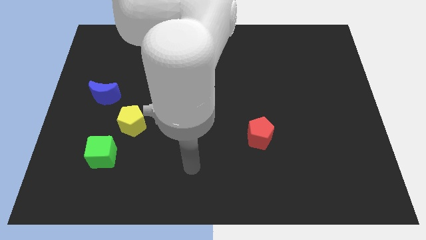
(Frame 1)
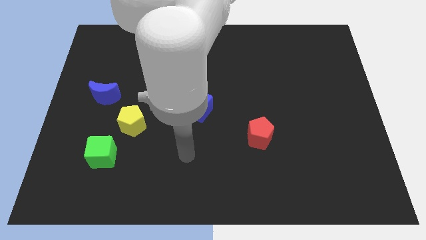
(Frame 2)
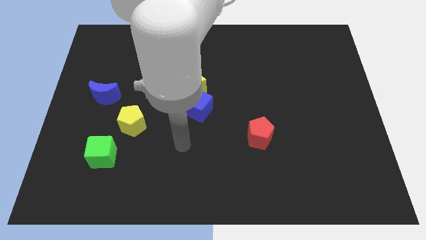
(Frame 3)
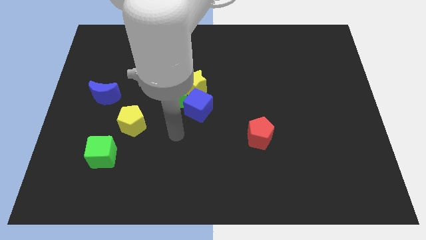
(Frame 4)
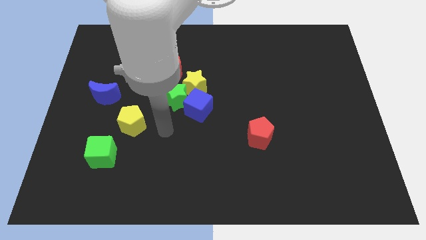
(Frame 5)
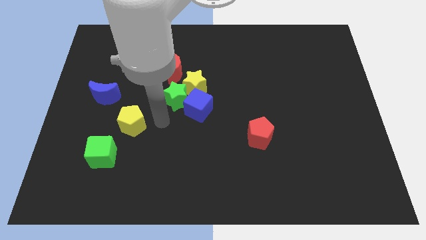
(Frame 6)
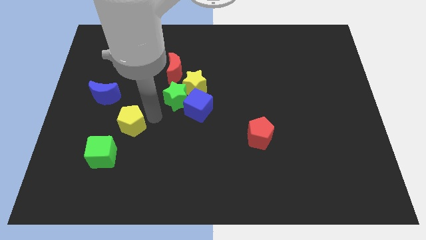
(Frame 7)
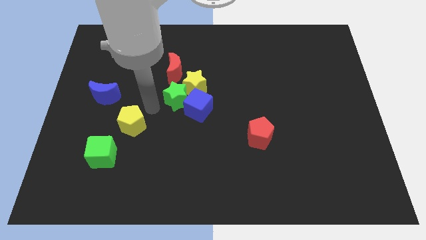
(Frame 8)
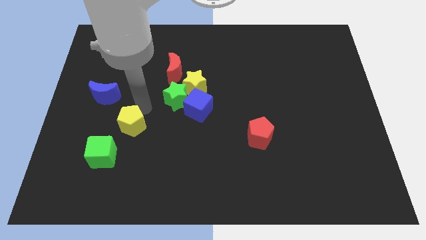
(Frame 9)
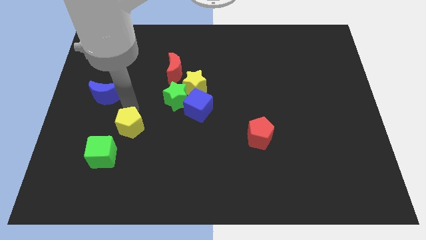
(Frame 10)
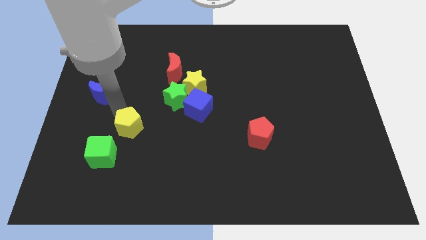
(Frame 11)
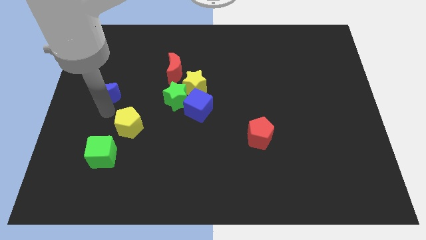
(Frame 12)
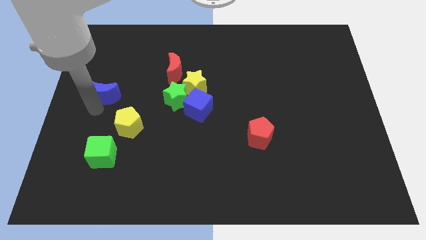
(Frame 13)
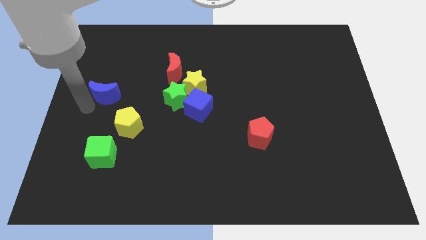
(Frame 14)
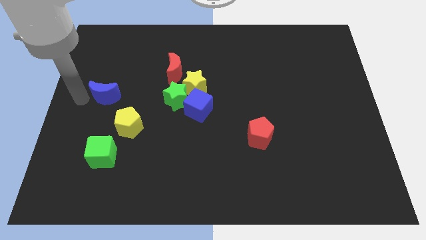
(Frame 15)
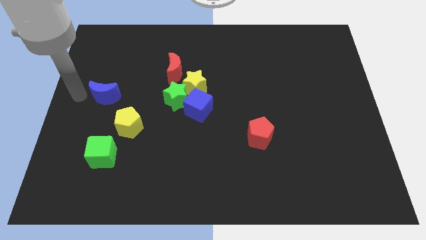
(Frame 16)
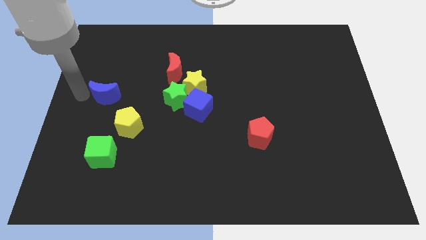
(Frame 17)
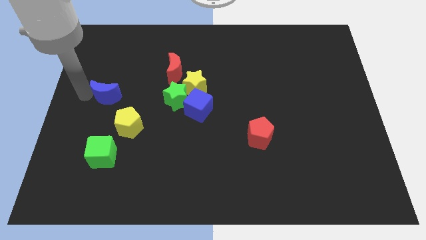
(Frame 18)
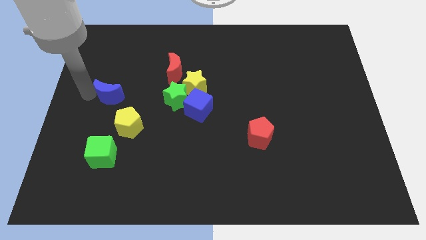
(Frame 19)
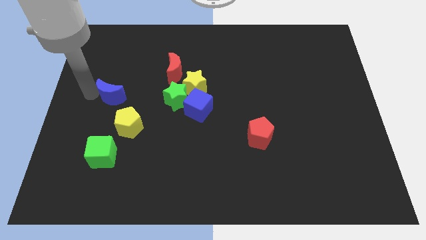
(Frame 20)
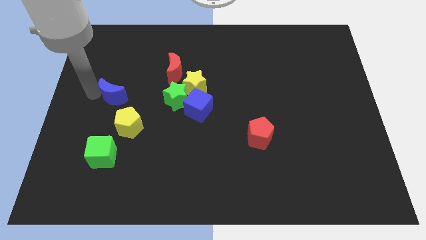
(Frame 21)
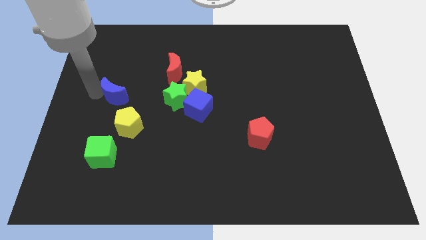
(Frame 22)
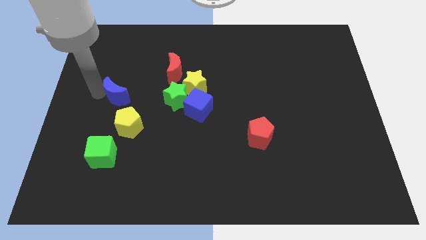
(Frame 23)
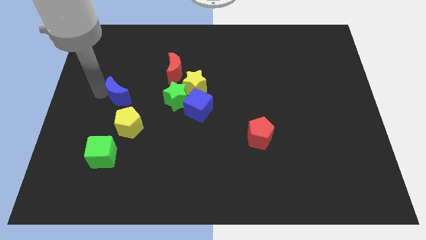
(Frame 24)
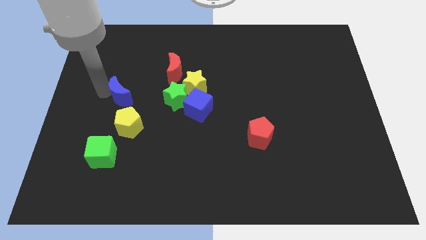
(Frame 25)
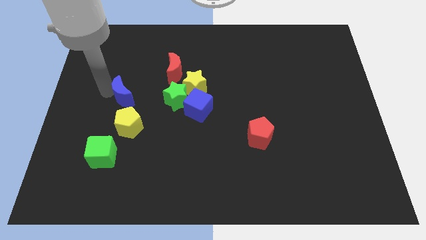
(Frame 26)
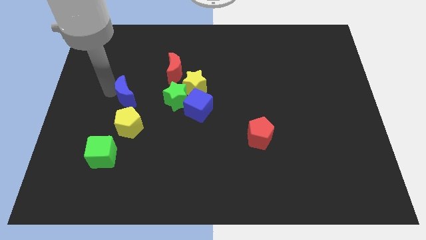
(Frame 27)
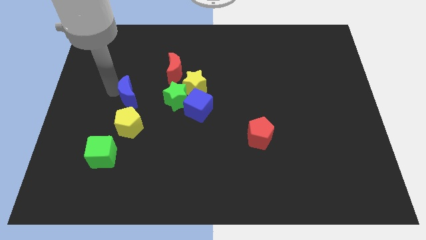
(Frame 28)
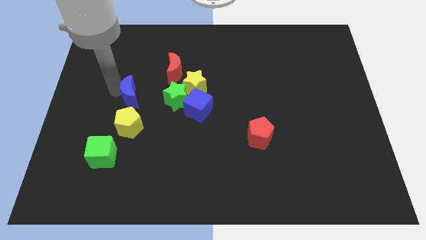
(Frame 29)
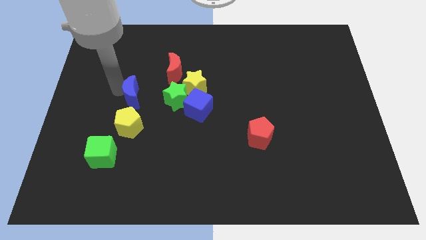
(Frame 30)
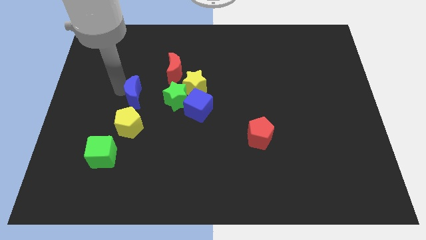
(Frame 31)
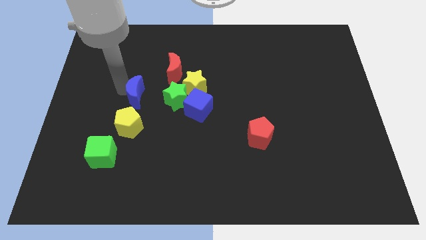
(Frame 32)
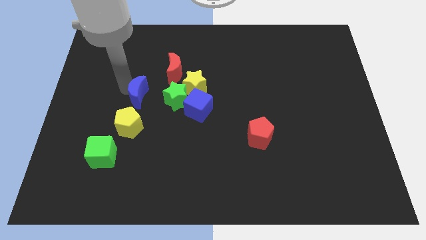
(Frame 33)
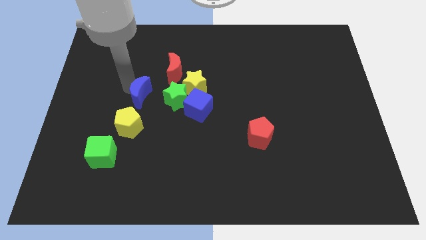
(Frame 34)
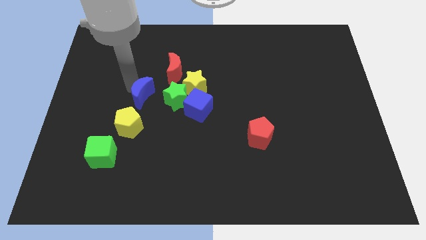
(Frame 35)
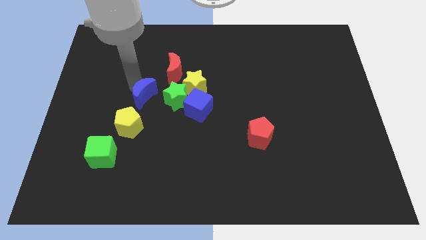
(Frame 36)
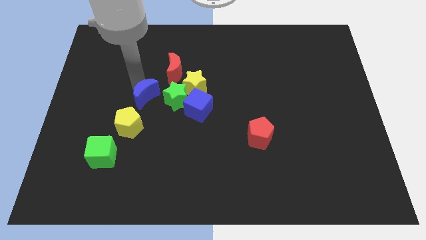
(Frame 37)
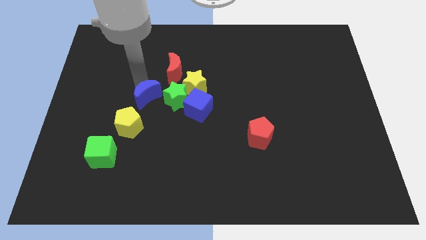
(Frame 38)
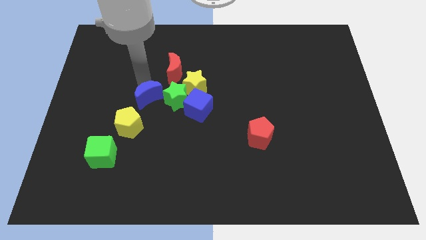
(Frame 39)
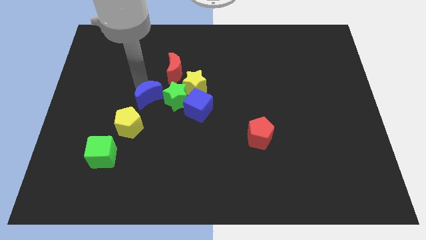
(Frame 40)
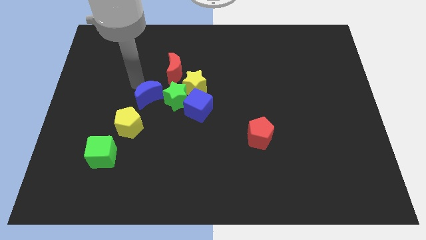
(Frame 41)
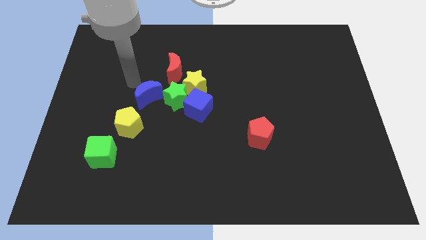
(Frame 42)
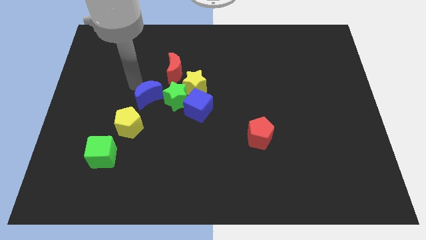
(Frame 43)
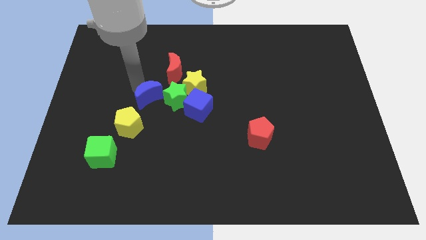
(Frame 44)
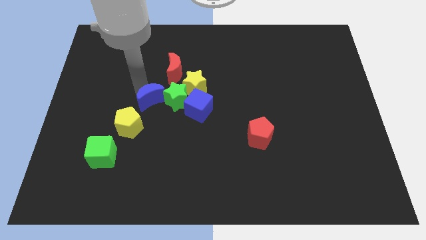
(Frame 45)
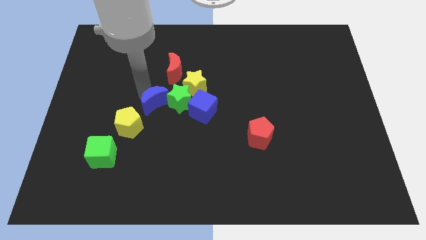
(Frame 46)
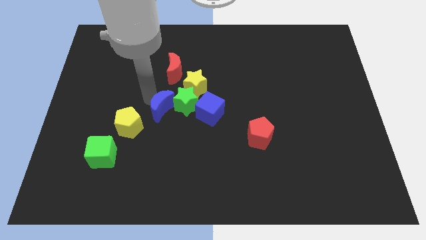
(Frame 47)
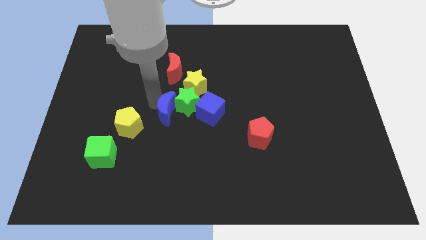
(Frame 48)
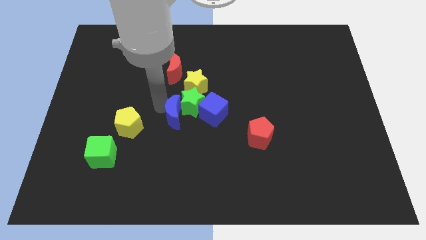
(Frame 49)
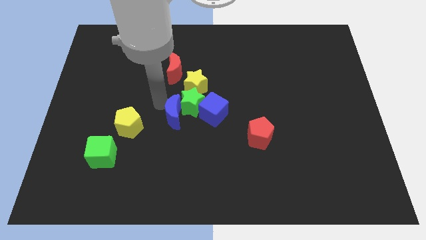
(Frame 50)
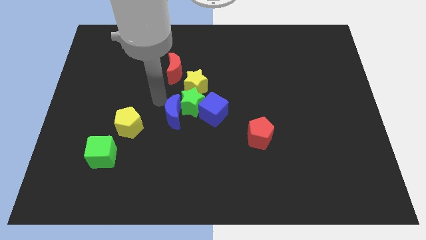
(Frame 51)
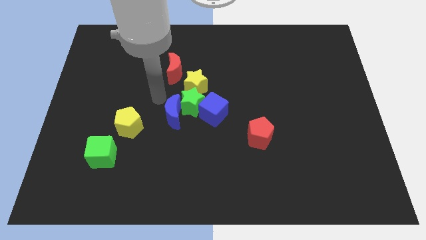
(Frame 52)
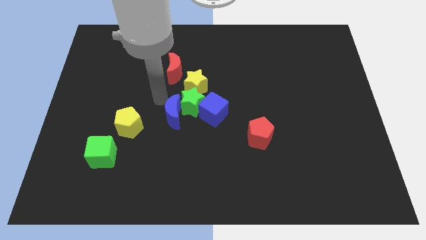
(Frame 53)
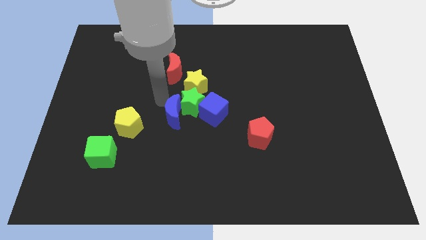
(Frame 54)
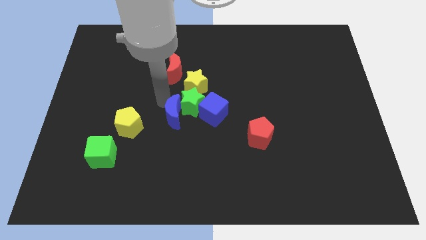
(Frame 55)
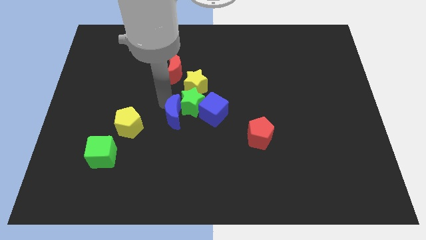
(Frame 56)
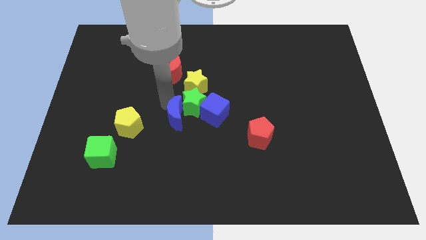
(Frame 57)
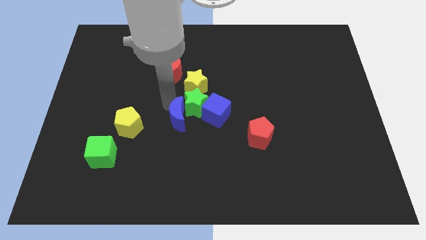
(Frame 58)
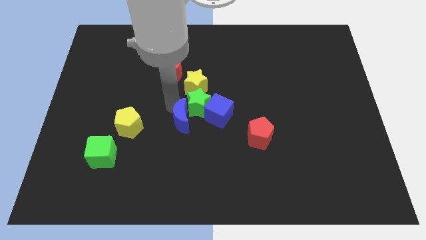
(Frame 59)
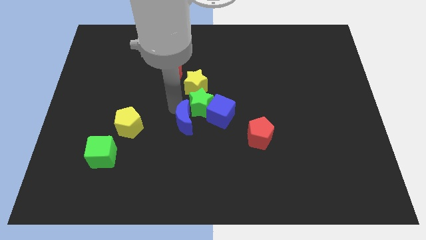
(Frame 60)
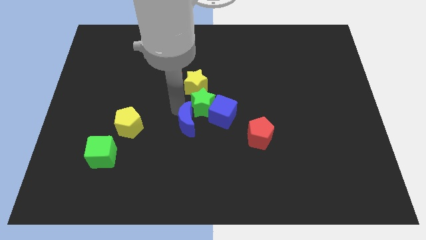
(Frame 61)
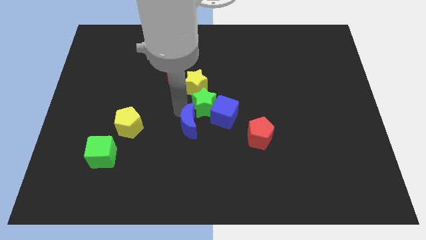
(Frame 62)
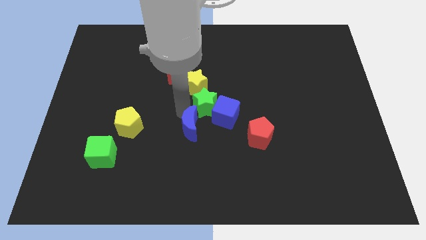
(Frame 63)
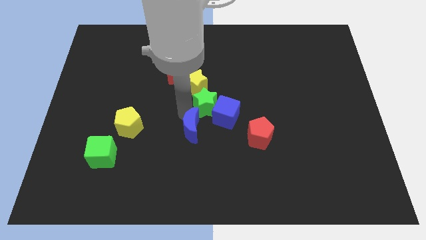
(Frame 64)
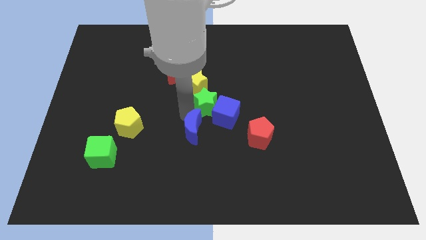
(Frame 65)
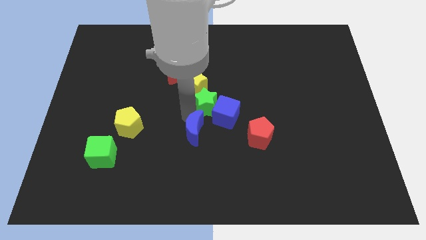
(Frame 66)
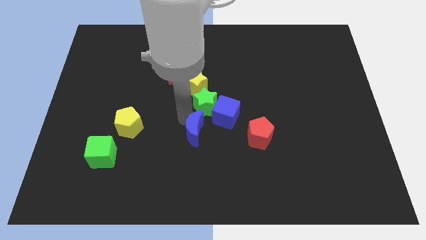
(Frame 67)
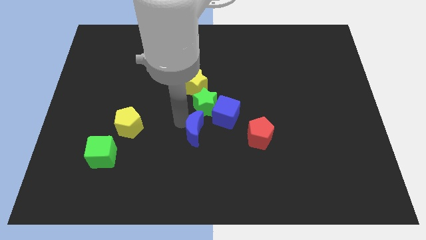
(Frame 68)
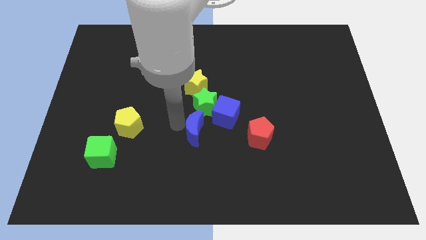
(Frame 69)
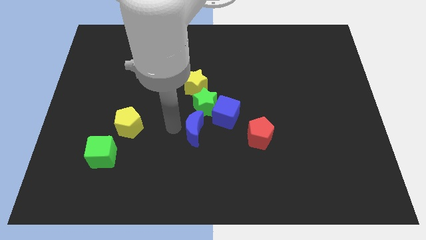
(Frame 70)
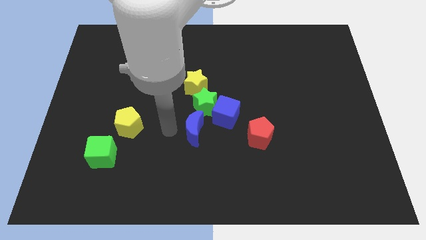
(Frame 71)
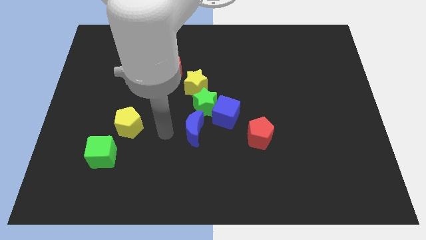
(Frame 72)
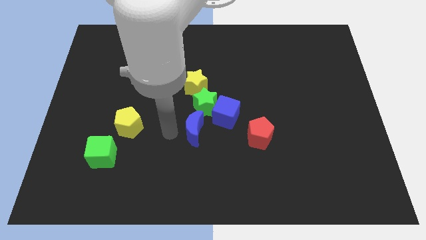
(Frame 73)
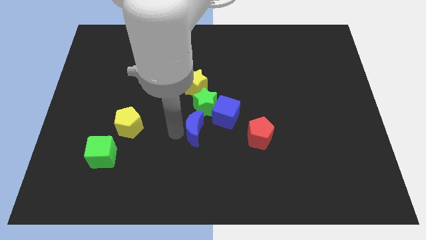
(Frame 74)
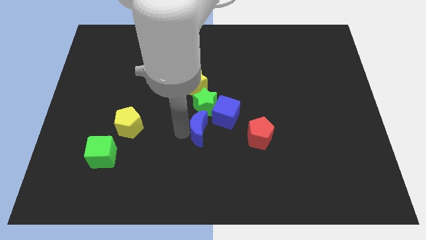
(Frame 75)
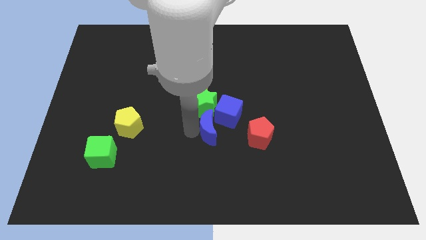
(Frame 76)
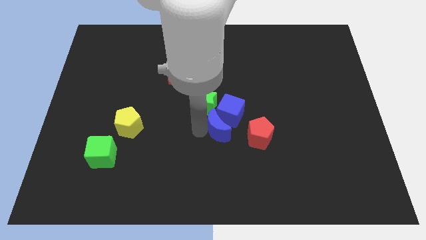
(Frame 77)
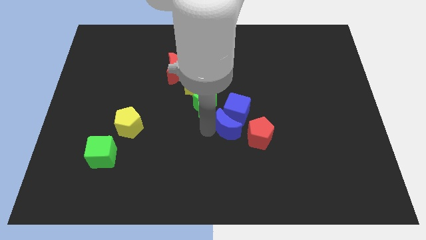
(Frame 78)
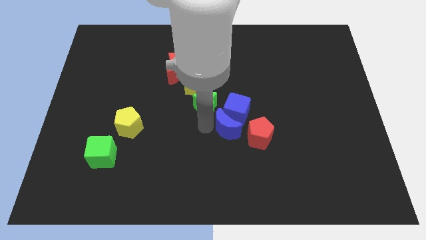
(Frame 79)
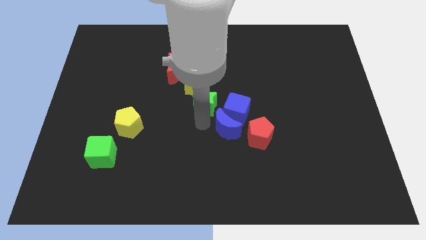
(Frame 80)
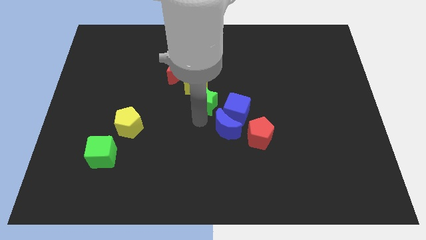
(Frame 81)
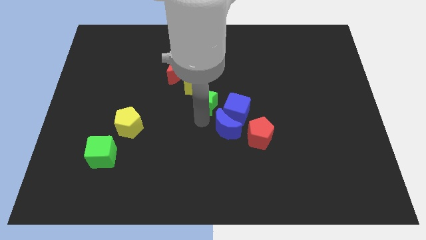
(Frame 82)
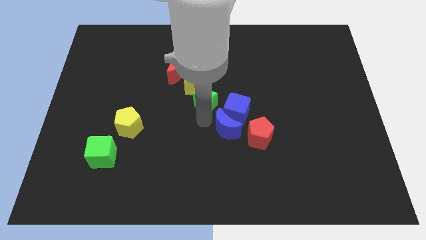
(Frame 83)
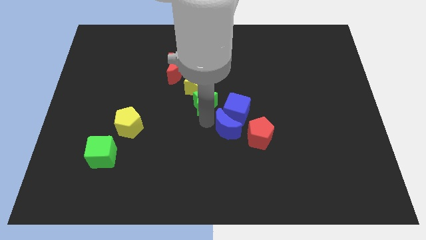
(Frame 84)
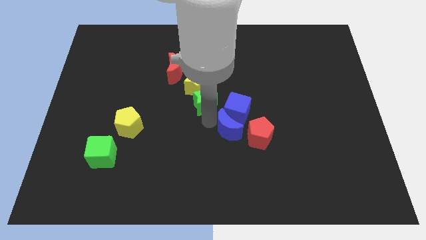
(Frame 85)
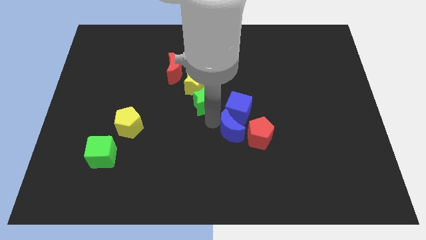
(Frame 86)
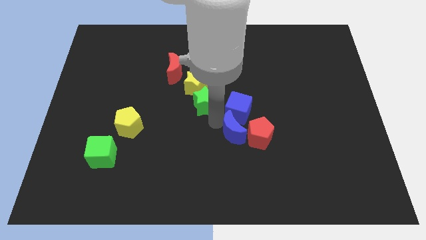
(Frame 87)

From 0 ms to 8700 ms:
put the blue moon to the red pentagon
